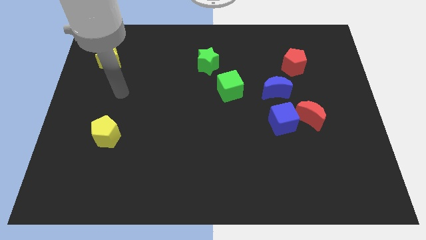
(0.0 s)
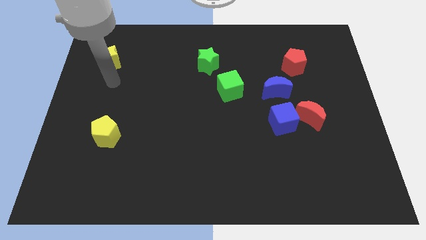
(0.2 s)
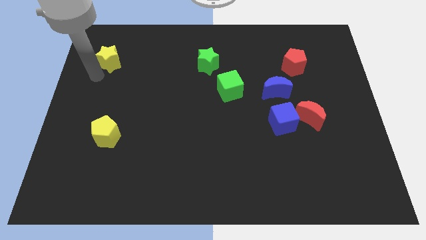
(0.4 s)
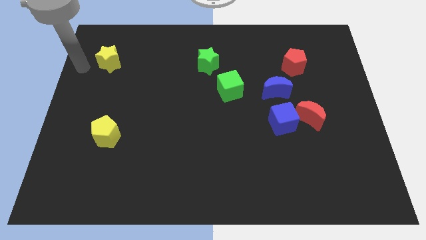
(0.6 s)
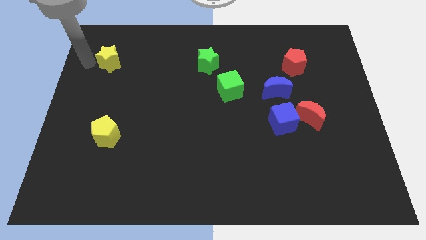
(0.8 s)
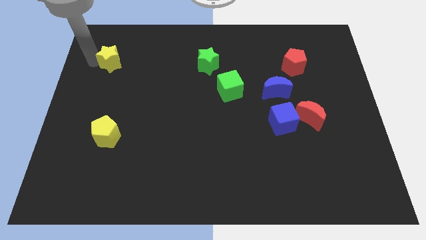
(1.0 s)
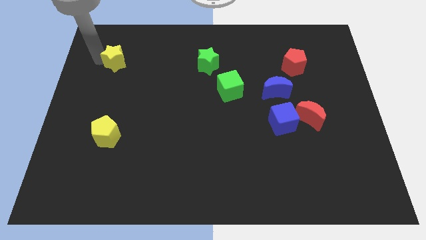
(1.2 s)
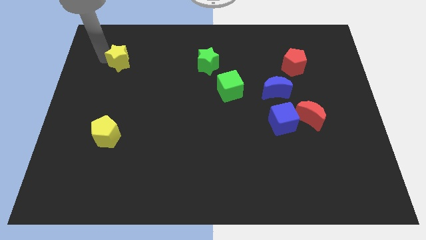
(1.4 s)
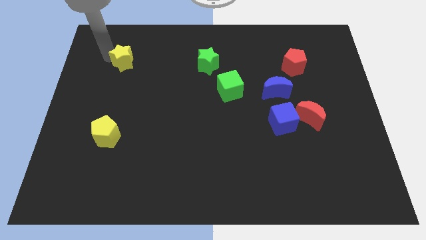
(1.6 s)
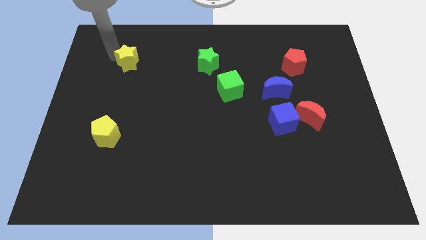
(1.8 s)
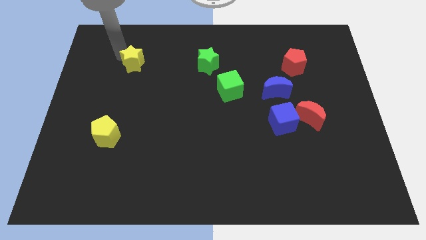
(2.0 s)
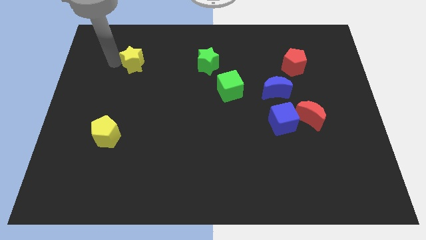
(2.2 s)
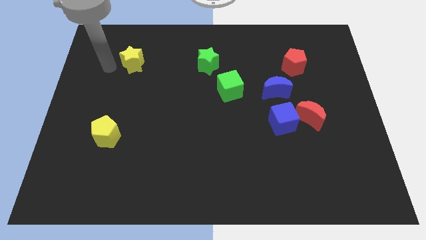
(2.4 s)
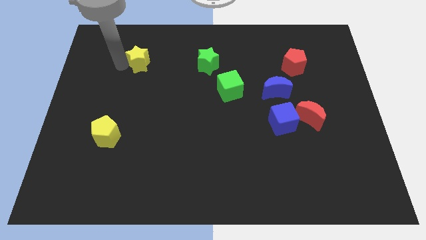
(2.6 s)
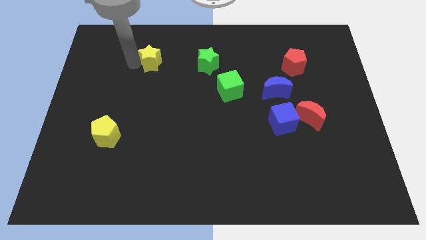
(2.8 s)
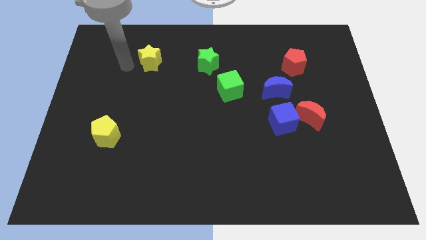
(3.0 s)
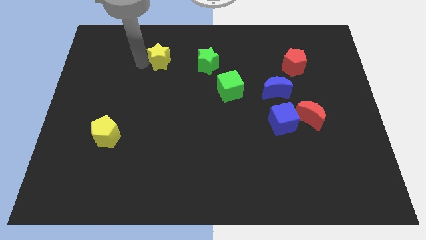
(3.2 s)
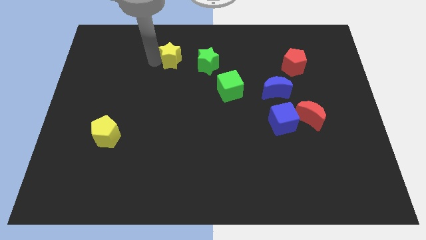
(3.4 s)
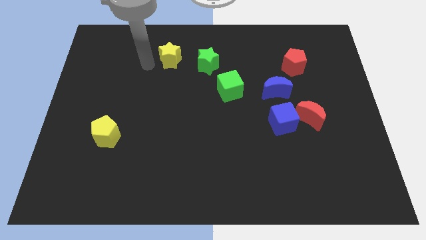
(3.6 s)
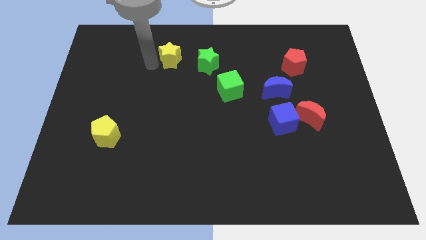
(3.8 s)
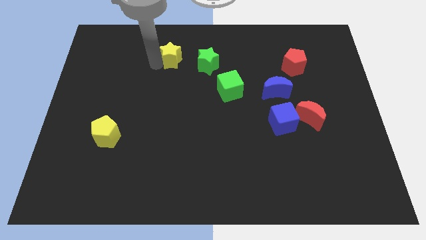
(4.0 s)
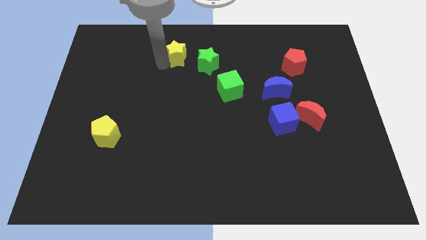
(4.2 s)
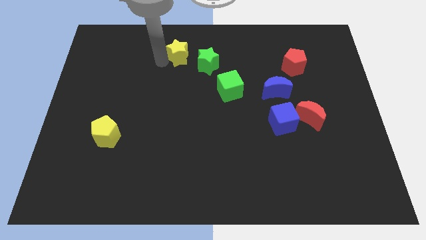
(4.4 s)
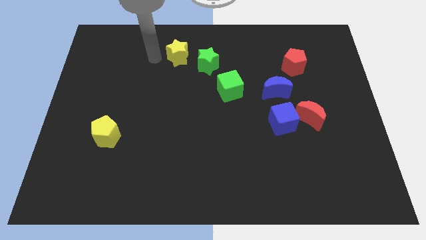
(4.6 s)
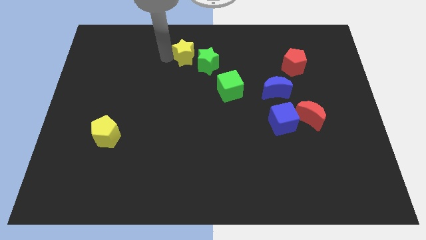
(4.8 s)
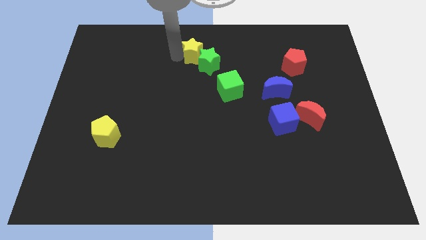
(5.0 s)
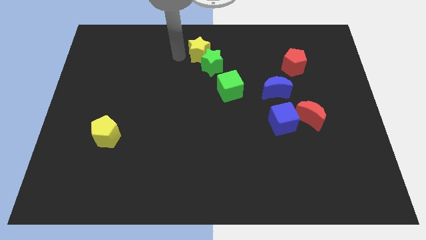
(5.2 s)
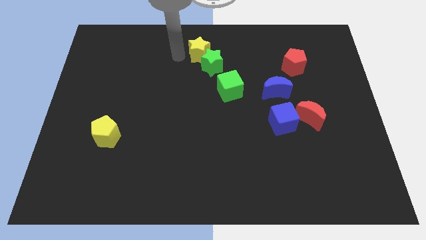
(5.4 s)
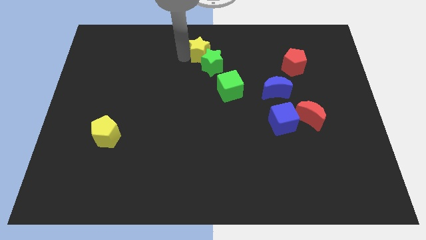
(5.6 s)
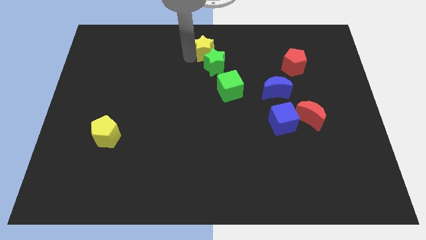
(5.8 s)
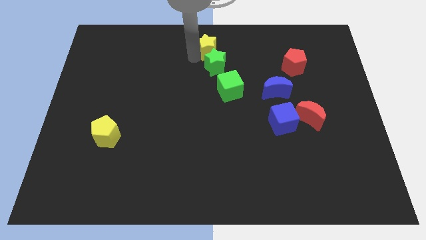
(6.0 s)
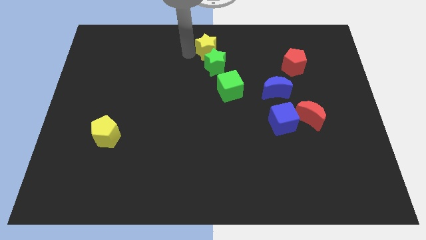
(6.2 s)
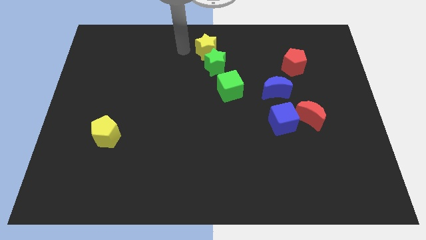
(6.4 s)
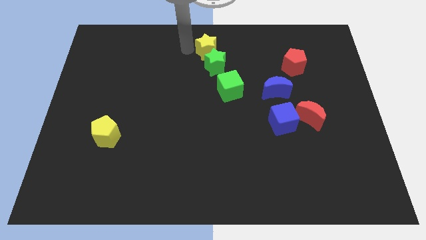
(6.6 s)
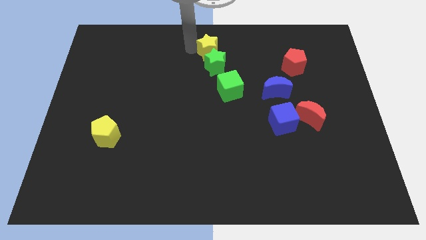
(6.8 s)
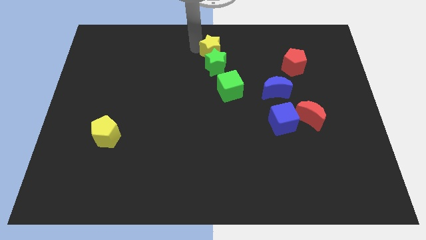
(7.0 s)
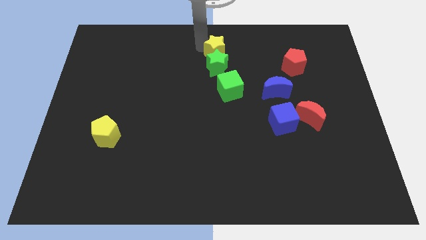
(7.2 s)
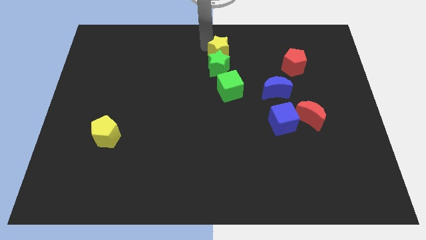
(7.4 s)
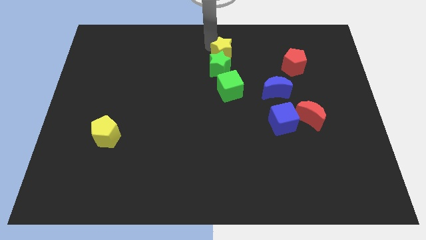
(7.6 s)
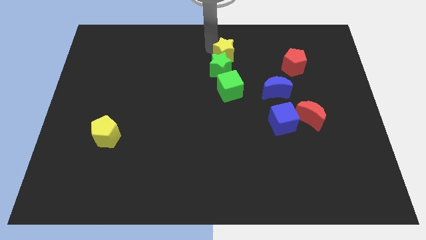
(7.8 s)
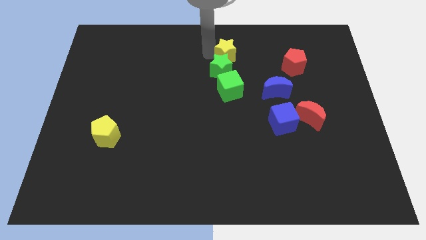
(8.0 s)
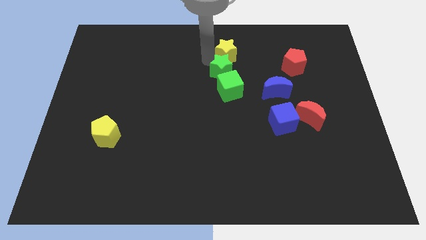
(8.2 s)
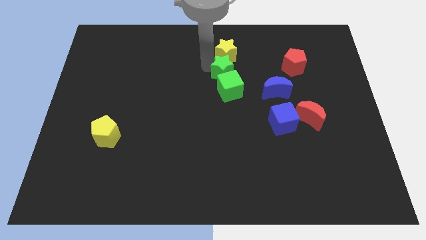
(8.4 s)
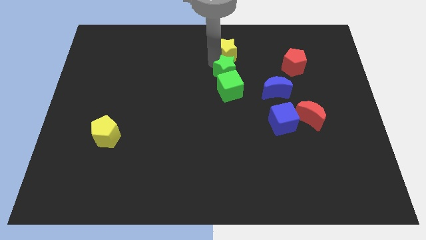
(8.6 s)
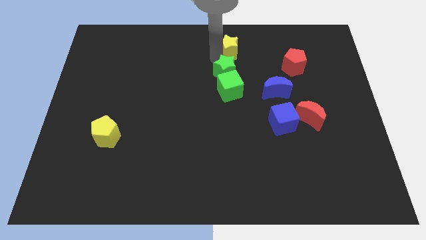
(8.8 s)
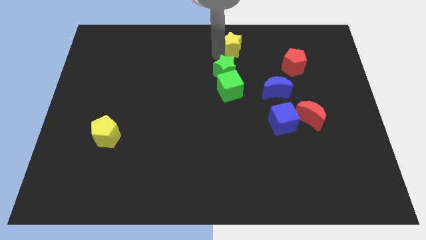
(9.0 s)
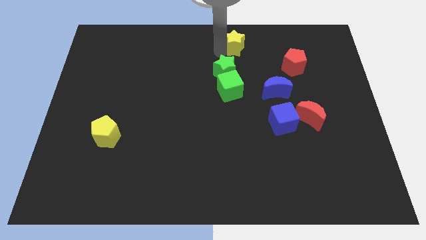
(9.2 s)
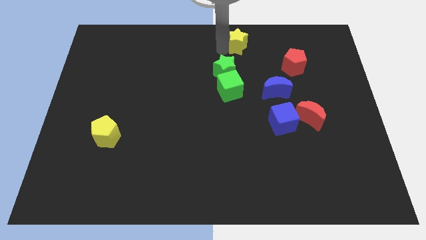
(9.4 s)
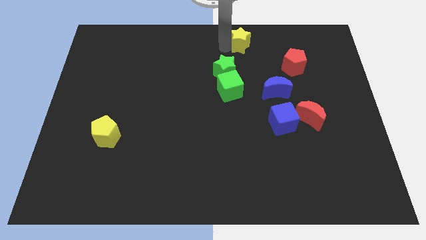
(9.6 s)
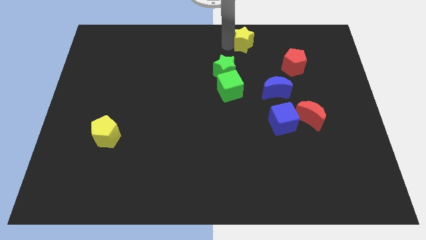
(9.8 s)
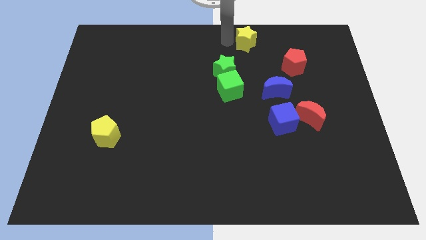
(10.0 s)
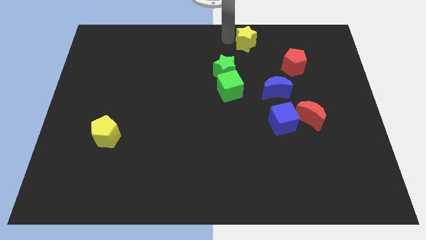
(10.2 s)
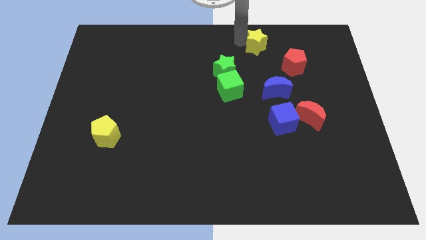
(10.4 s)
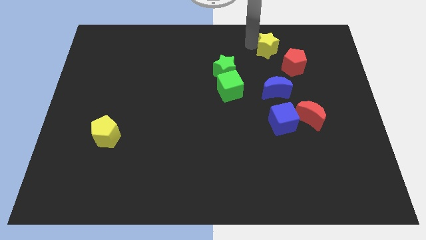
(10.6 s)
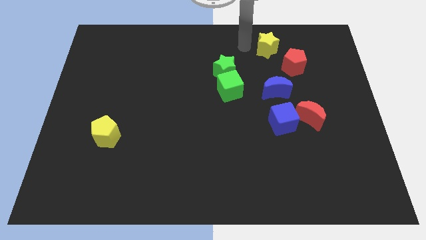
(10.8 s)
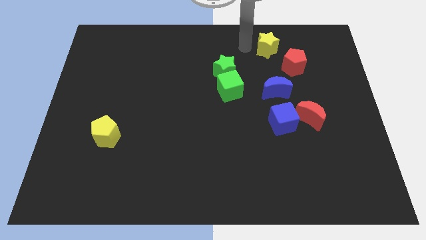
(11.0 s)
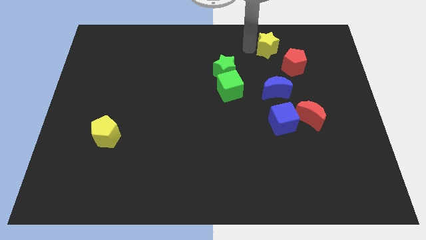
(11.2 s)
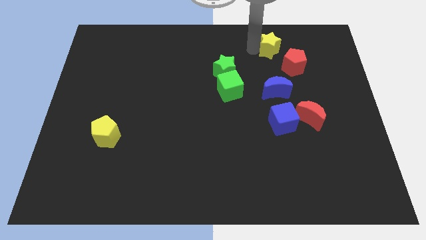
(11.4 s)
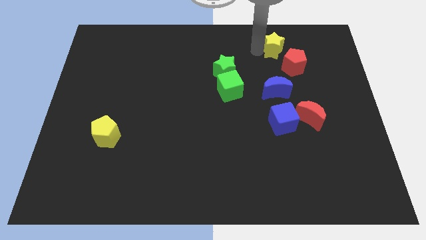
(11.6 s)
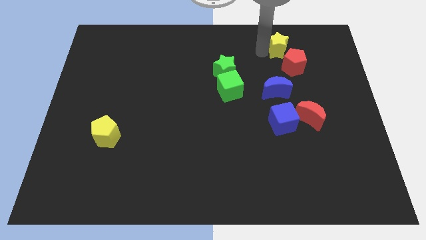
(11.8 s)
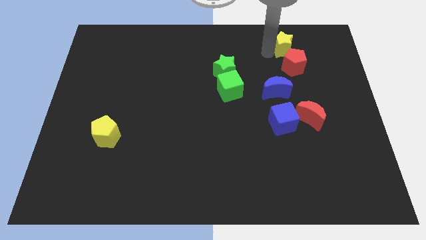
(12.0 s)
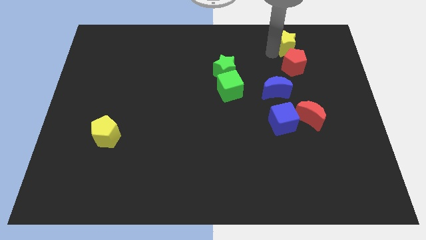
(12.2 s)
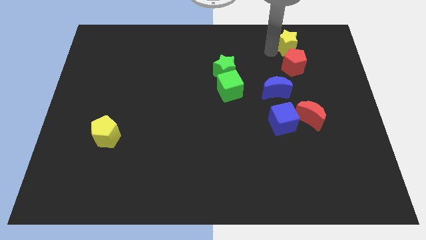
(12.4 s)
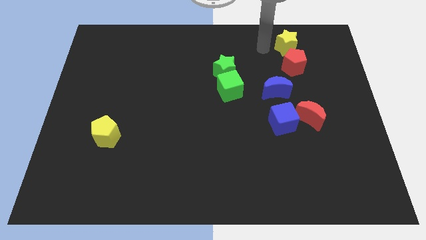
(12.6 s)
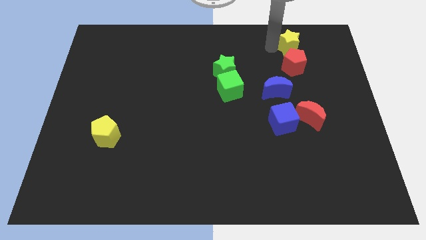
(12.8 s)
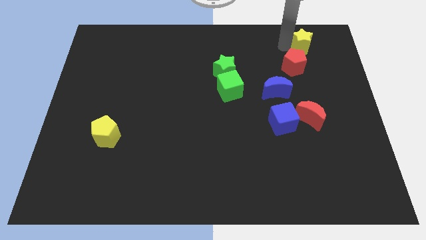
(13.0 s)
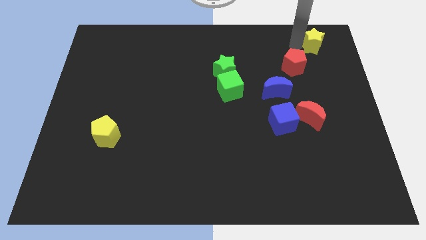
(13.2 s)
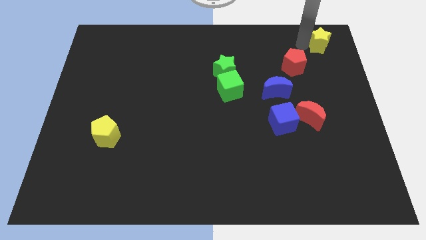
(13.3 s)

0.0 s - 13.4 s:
move the yellow star to the top right
